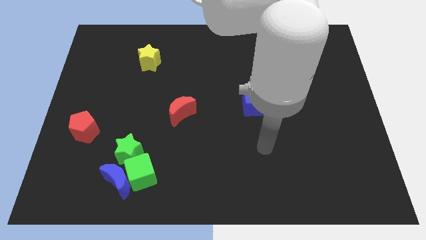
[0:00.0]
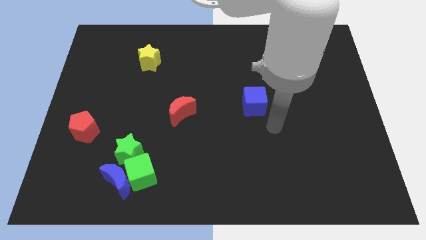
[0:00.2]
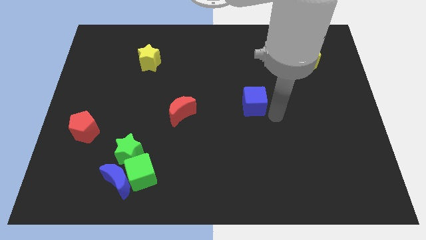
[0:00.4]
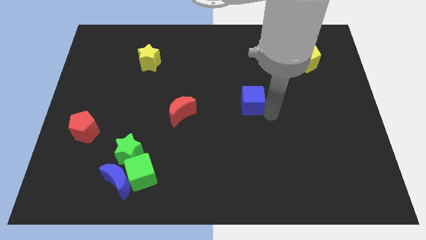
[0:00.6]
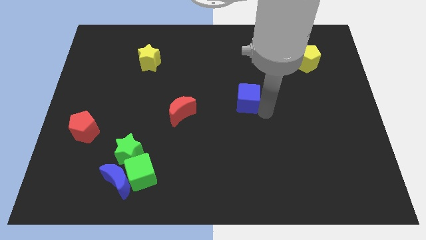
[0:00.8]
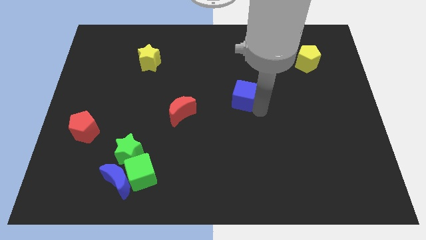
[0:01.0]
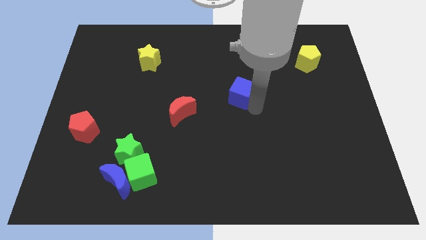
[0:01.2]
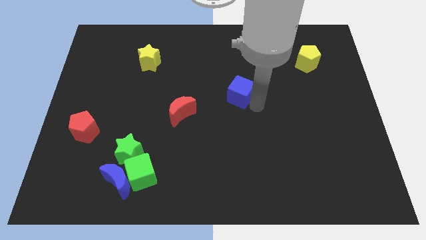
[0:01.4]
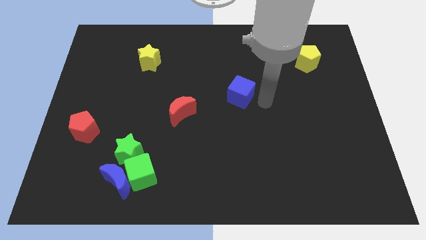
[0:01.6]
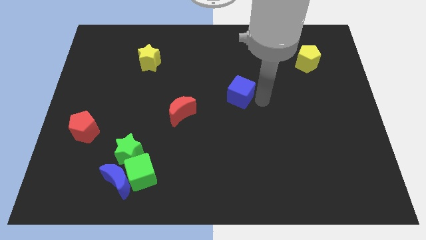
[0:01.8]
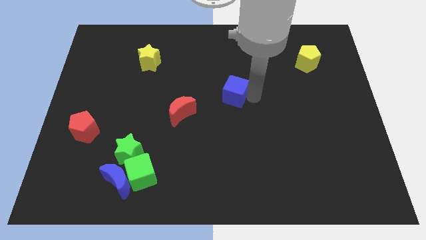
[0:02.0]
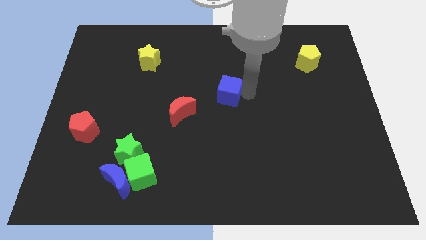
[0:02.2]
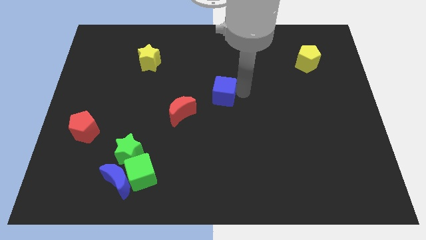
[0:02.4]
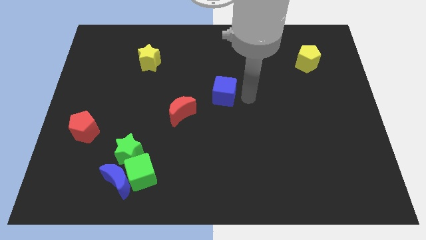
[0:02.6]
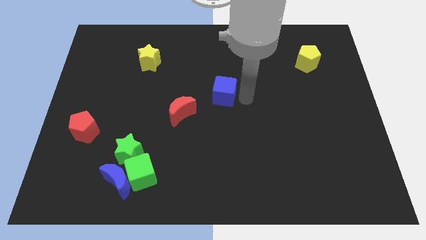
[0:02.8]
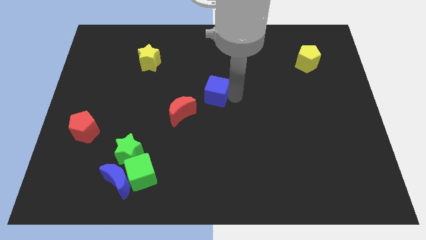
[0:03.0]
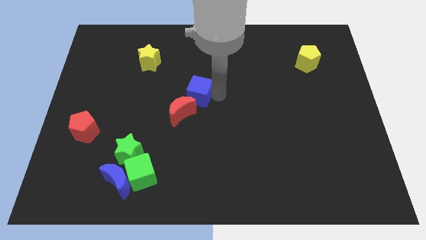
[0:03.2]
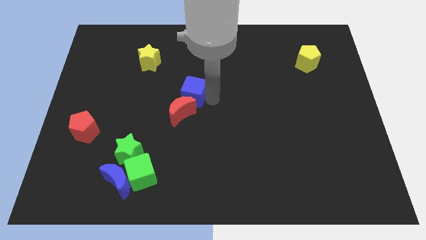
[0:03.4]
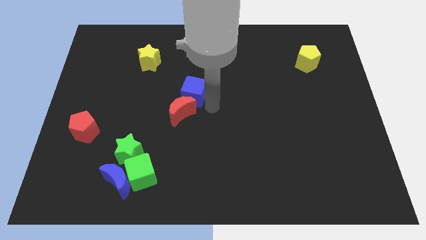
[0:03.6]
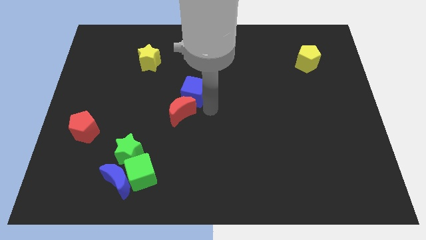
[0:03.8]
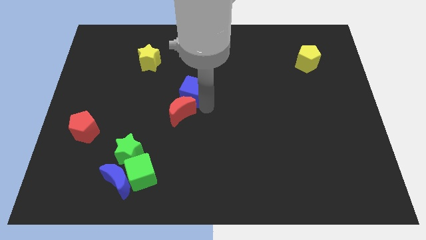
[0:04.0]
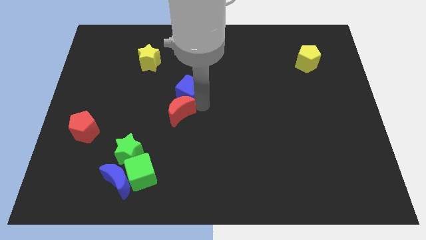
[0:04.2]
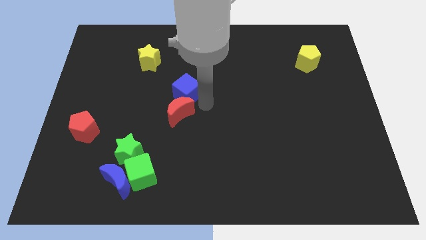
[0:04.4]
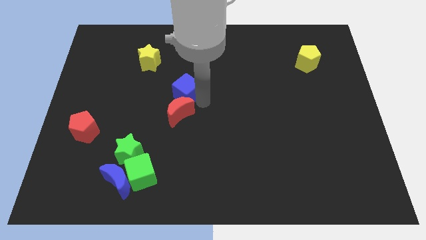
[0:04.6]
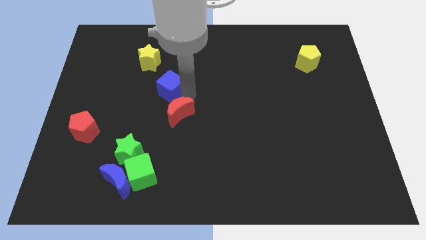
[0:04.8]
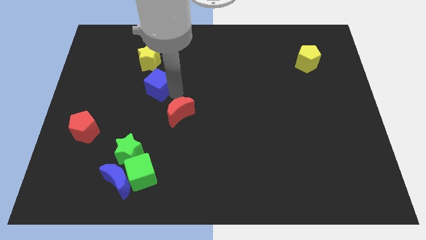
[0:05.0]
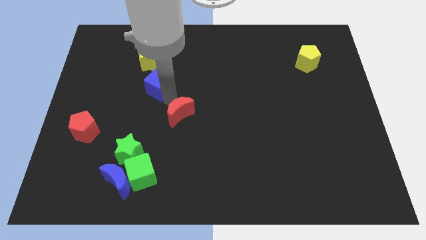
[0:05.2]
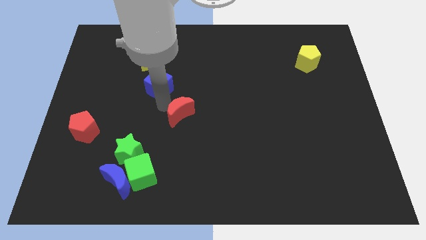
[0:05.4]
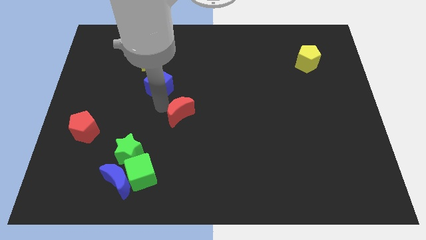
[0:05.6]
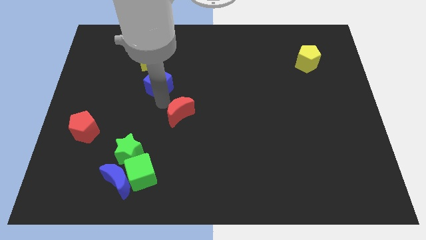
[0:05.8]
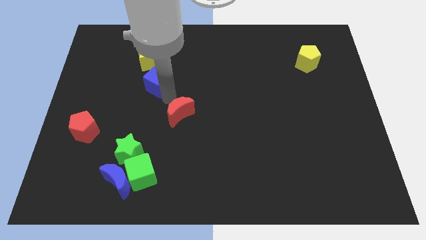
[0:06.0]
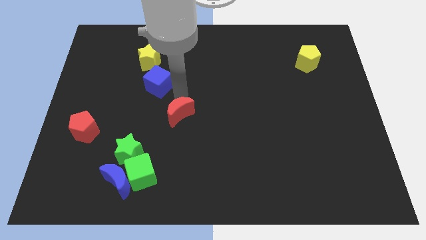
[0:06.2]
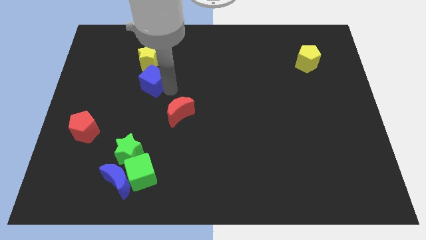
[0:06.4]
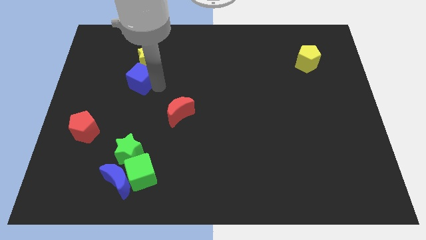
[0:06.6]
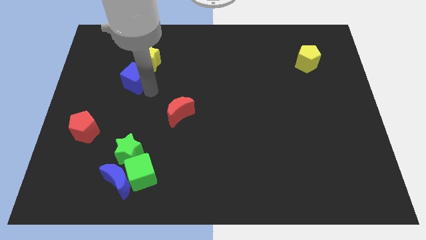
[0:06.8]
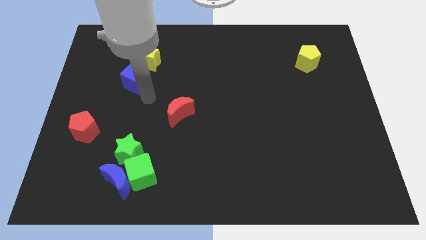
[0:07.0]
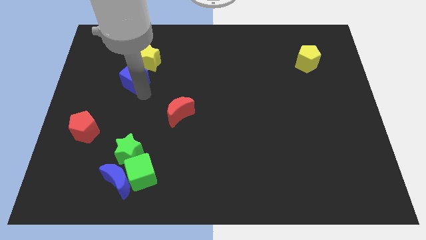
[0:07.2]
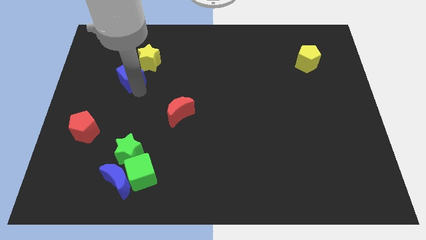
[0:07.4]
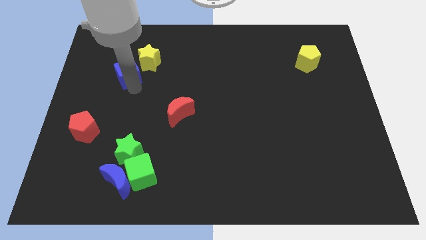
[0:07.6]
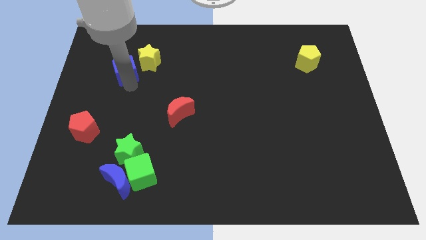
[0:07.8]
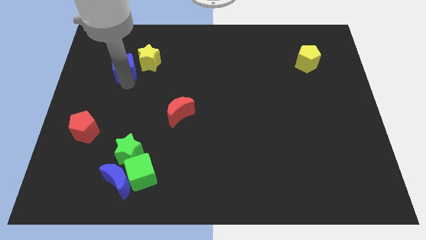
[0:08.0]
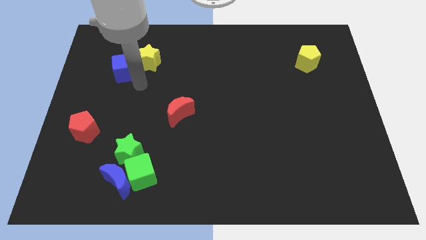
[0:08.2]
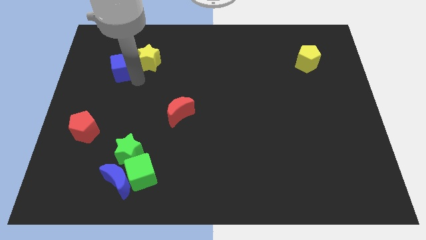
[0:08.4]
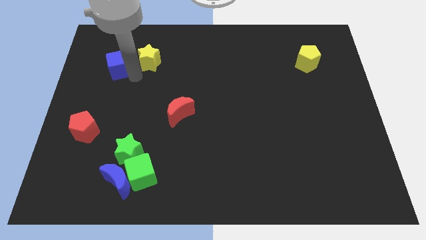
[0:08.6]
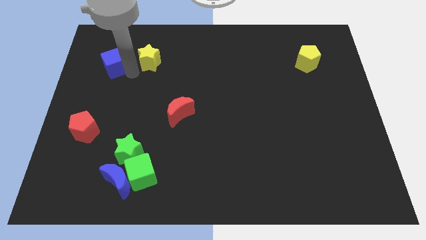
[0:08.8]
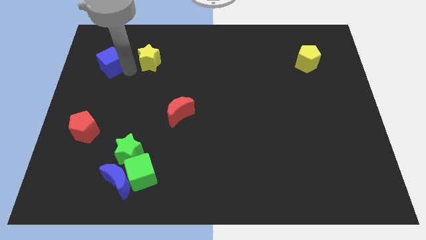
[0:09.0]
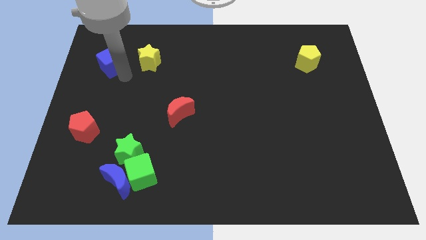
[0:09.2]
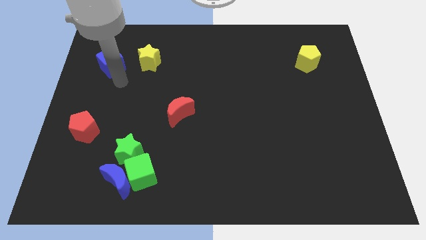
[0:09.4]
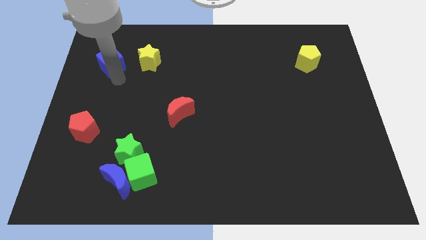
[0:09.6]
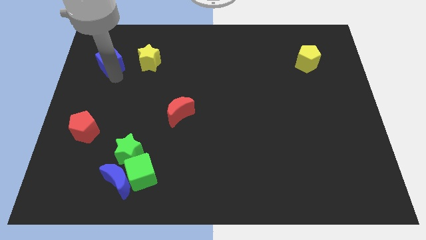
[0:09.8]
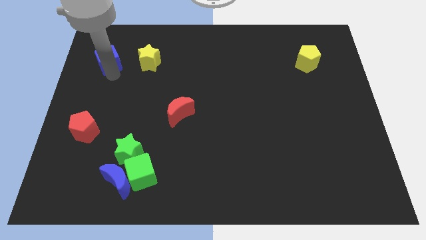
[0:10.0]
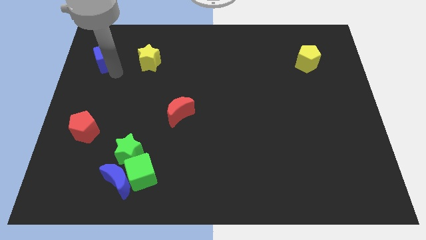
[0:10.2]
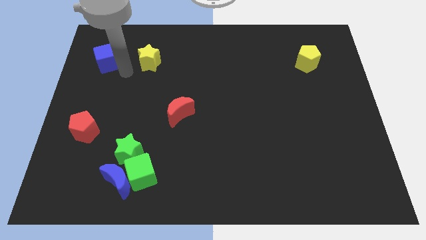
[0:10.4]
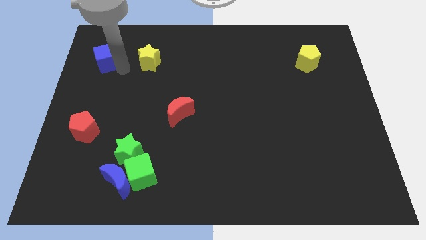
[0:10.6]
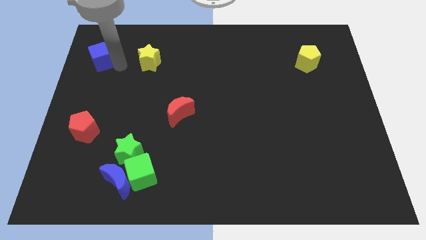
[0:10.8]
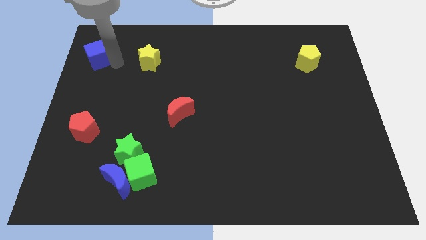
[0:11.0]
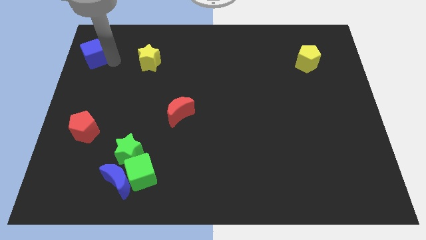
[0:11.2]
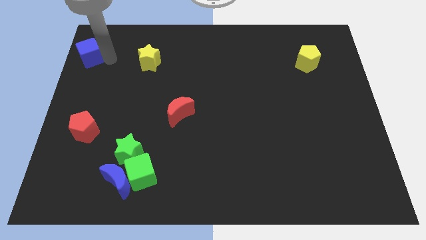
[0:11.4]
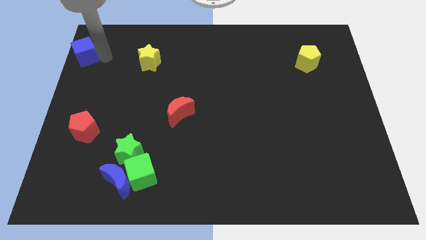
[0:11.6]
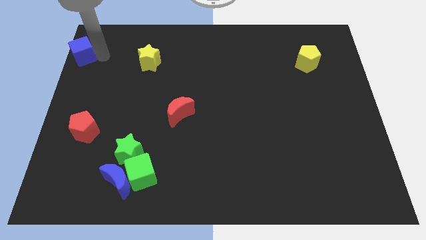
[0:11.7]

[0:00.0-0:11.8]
slide the blue cube to the upper left corner

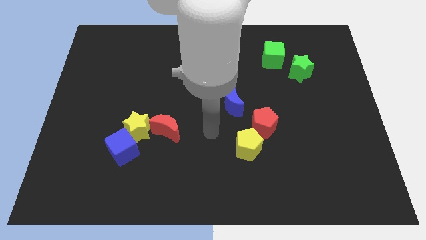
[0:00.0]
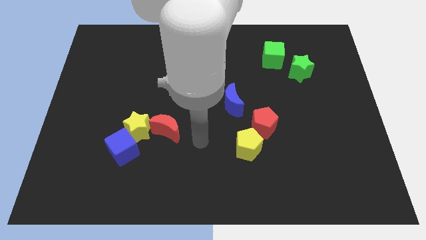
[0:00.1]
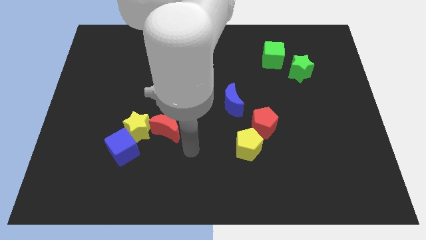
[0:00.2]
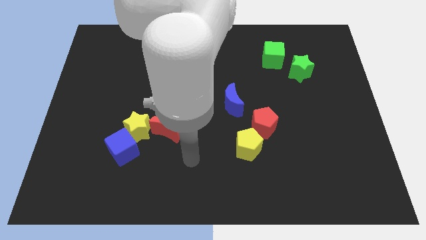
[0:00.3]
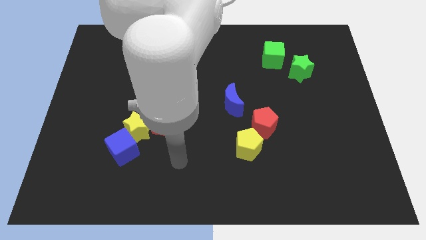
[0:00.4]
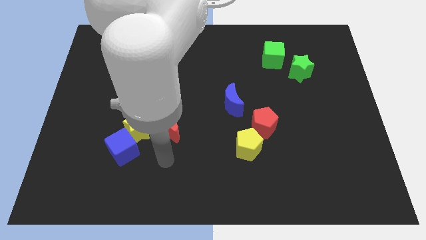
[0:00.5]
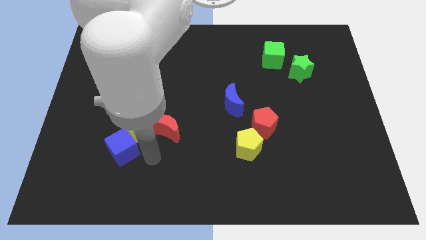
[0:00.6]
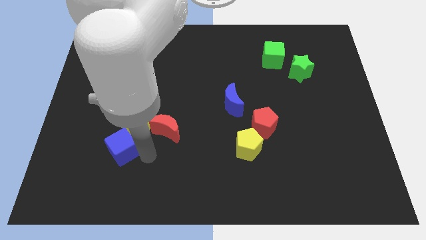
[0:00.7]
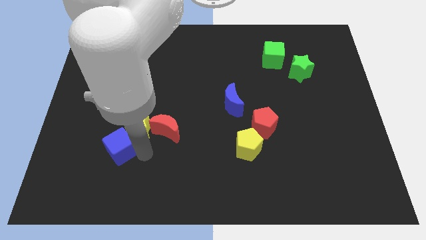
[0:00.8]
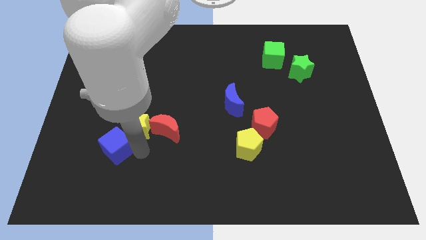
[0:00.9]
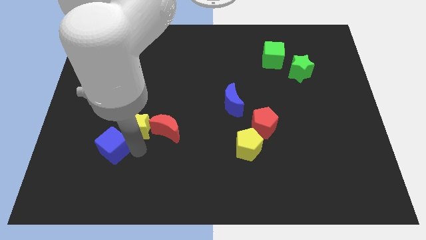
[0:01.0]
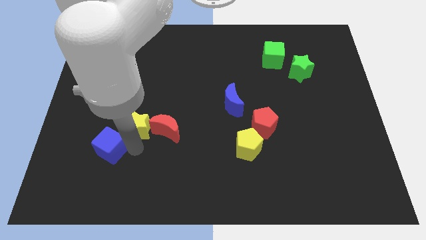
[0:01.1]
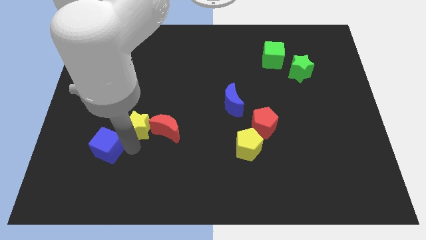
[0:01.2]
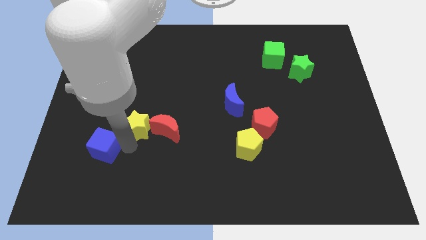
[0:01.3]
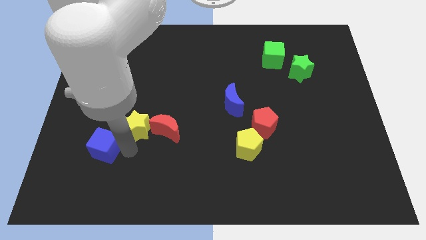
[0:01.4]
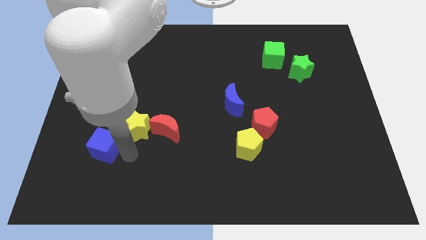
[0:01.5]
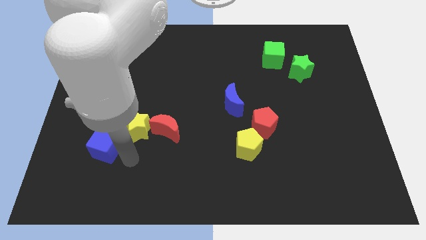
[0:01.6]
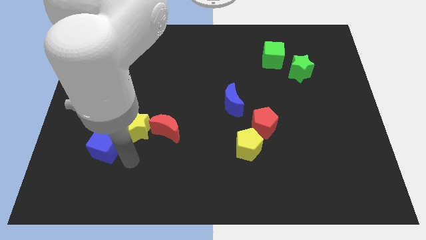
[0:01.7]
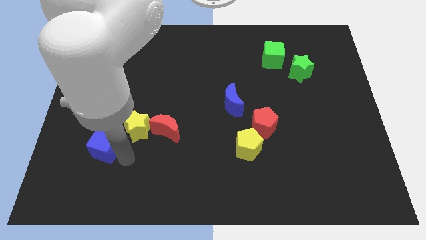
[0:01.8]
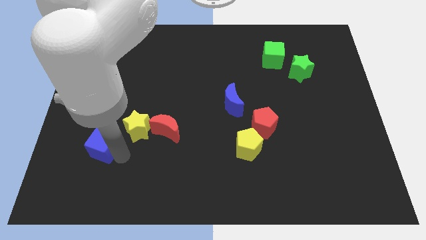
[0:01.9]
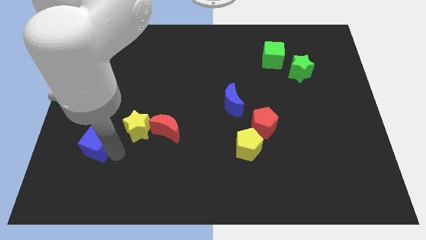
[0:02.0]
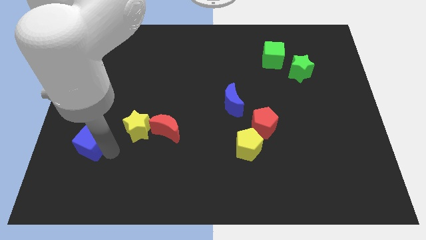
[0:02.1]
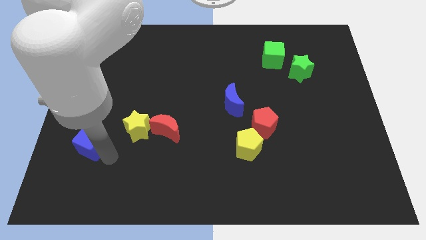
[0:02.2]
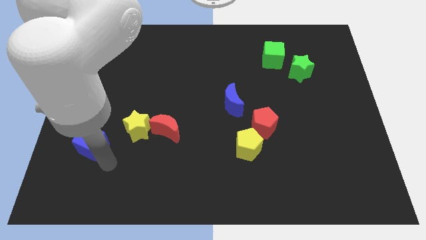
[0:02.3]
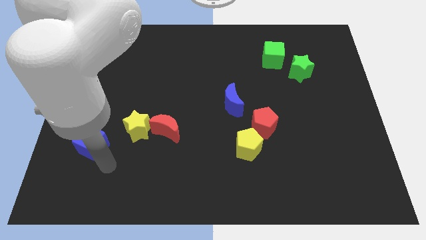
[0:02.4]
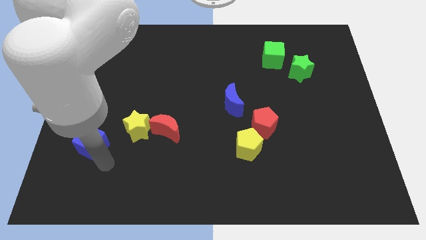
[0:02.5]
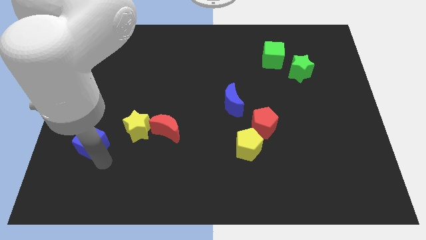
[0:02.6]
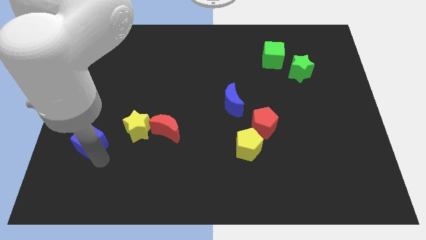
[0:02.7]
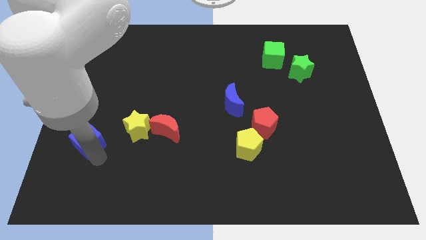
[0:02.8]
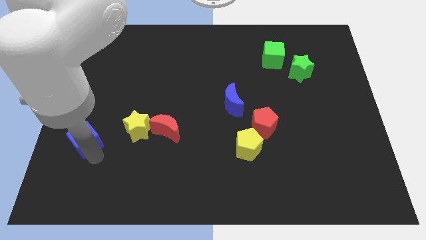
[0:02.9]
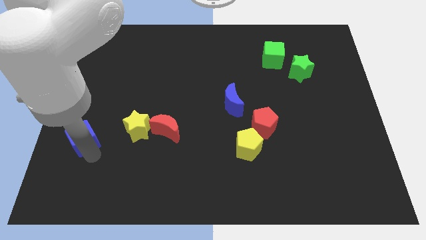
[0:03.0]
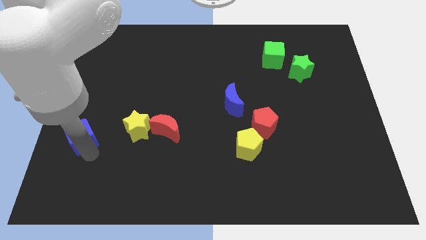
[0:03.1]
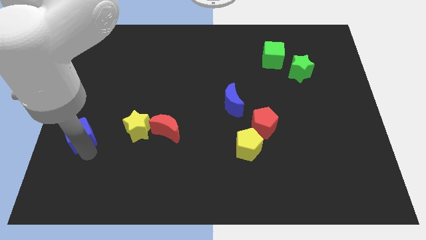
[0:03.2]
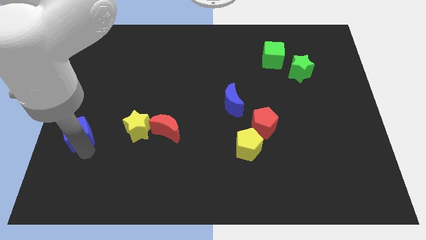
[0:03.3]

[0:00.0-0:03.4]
put the blue cube to the left side
